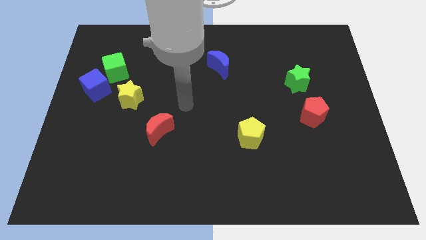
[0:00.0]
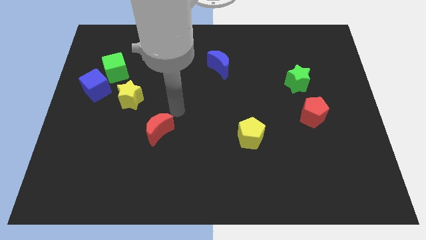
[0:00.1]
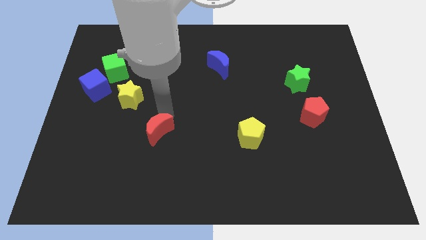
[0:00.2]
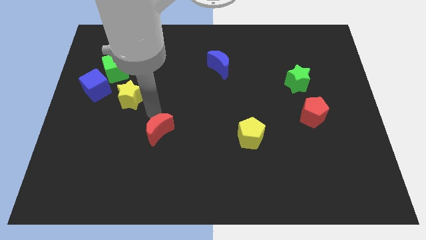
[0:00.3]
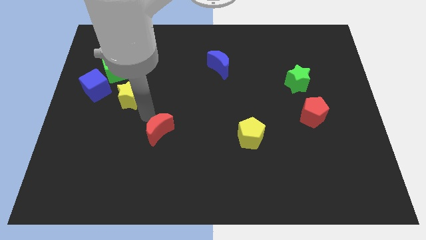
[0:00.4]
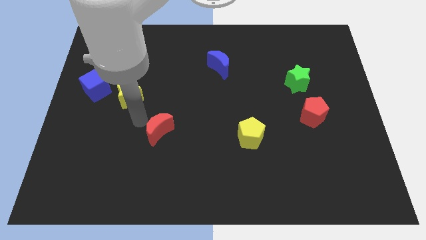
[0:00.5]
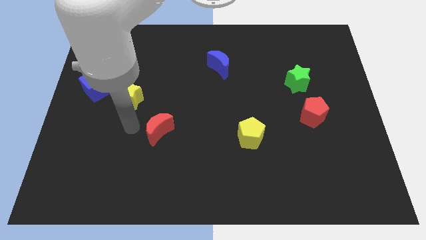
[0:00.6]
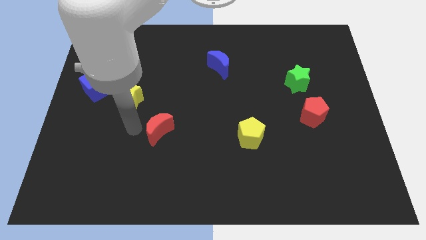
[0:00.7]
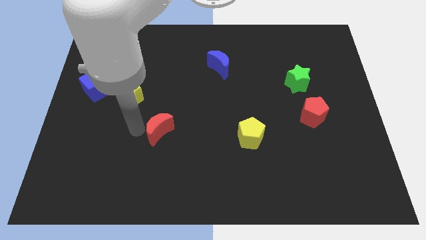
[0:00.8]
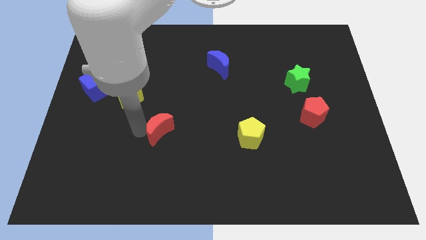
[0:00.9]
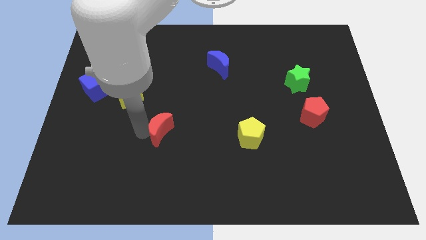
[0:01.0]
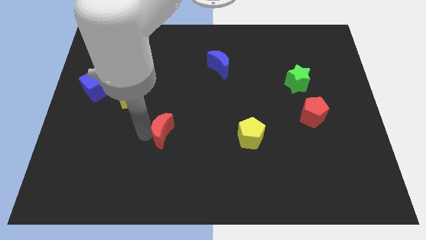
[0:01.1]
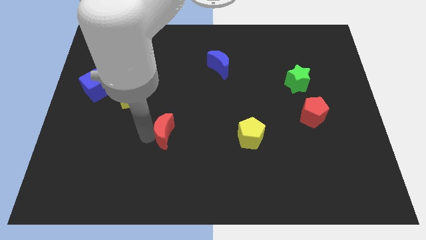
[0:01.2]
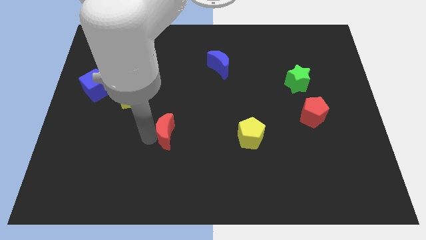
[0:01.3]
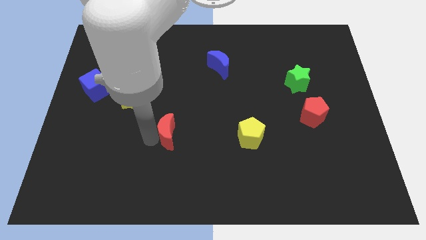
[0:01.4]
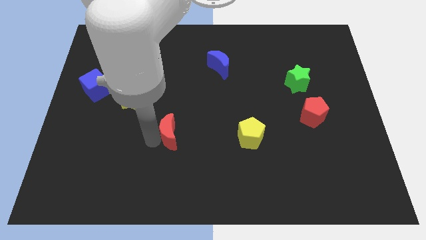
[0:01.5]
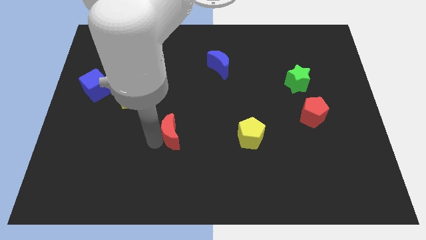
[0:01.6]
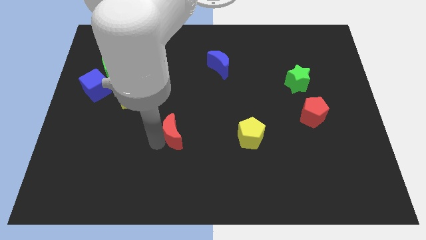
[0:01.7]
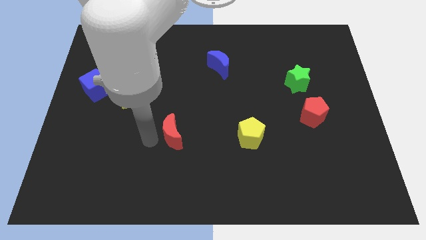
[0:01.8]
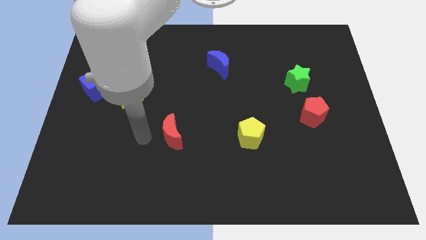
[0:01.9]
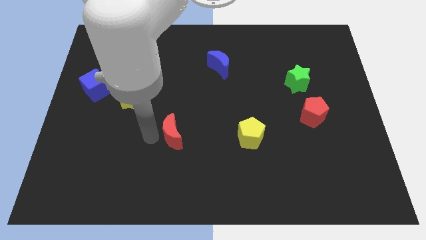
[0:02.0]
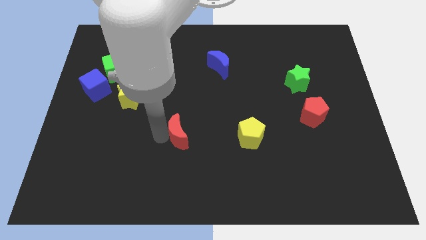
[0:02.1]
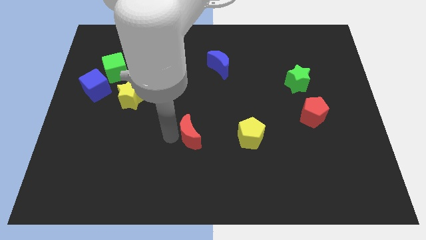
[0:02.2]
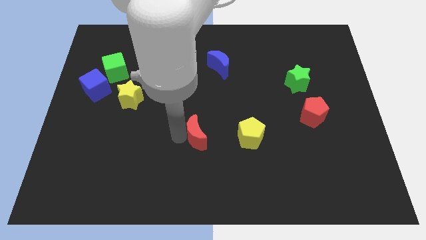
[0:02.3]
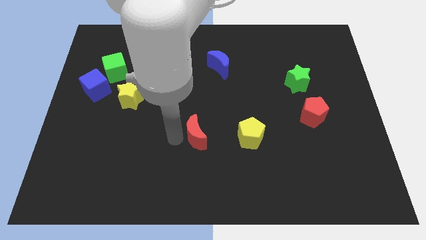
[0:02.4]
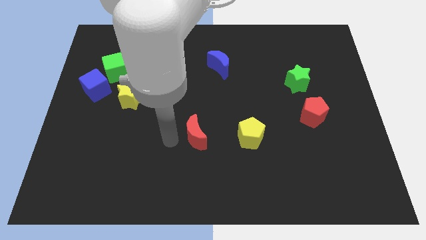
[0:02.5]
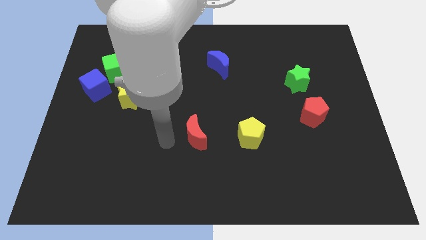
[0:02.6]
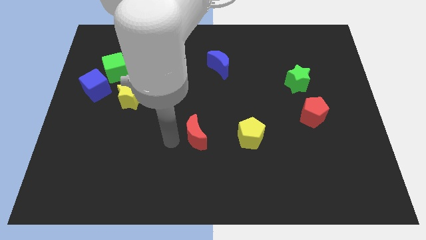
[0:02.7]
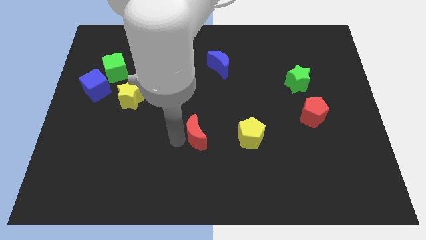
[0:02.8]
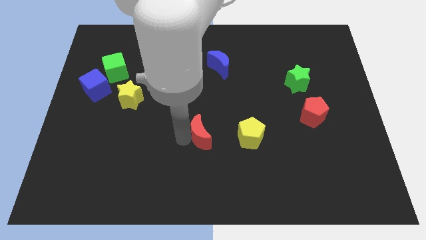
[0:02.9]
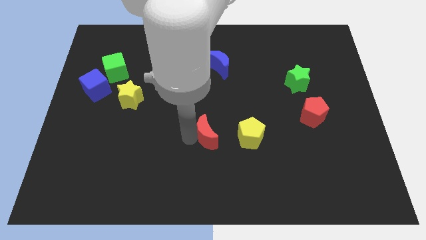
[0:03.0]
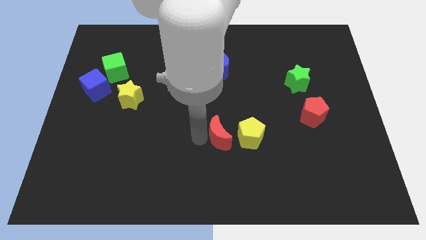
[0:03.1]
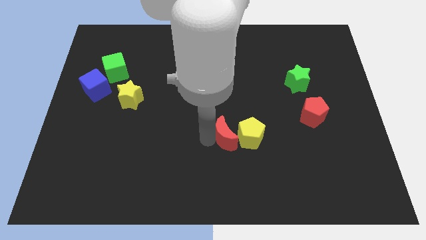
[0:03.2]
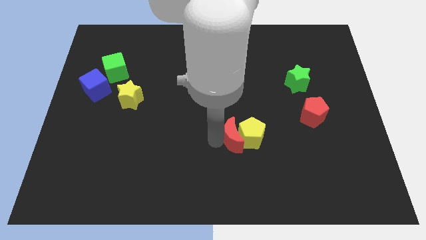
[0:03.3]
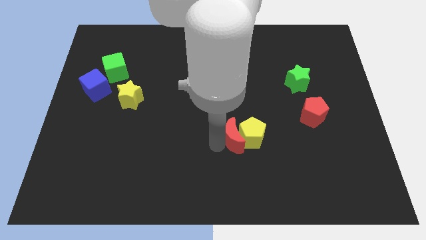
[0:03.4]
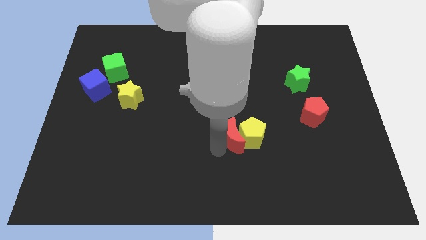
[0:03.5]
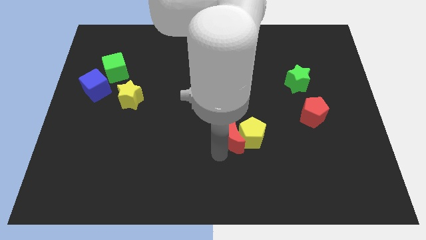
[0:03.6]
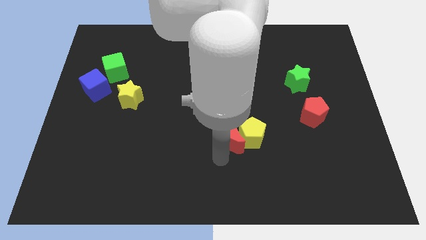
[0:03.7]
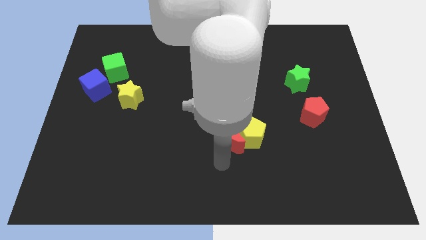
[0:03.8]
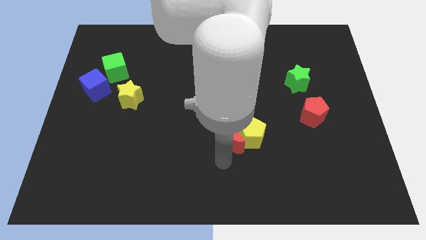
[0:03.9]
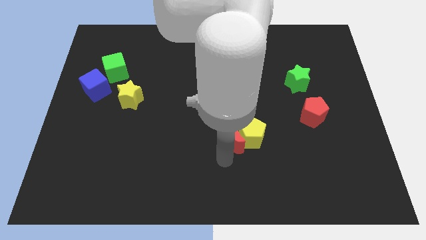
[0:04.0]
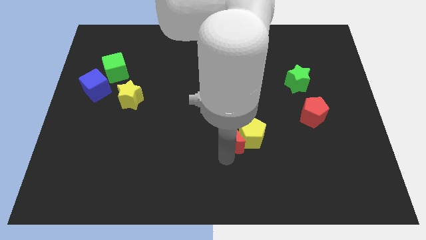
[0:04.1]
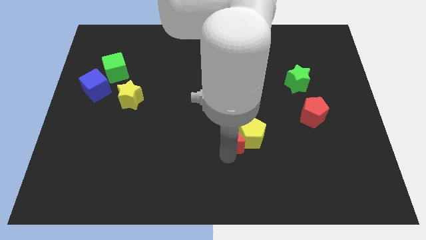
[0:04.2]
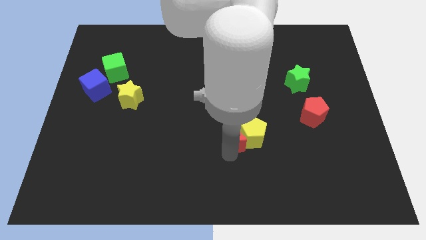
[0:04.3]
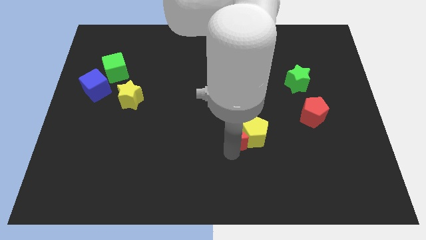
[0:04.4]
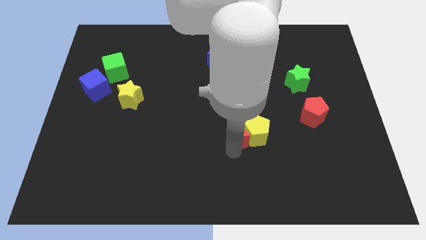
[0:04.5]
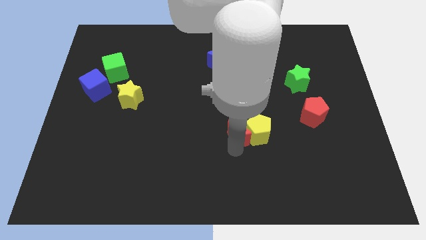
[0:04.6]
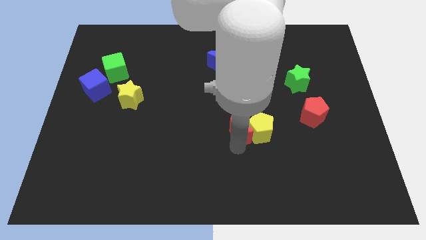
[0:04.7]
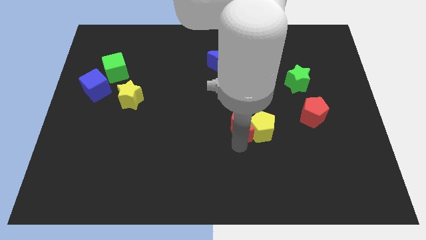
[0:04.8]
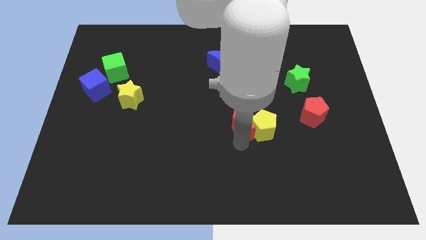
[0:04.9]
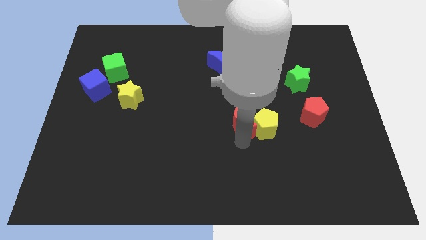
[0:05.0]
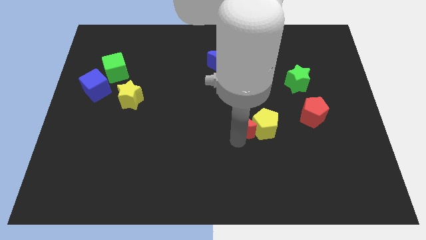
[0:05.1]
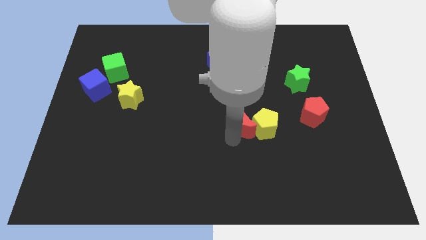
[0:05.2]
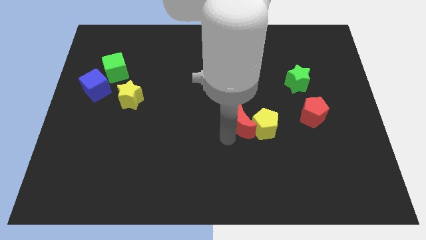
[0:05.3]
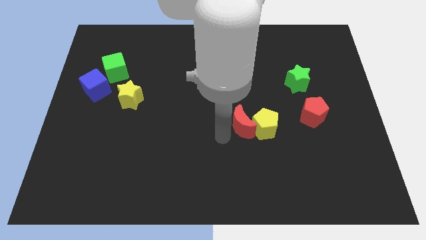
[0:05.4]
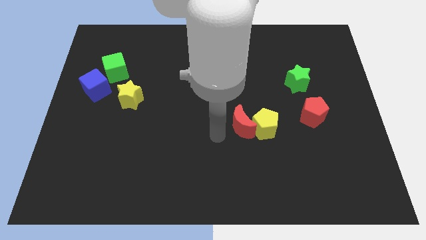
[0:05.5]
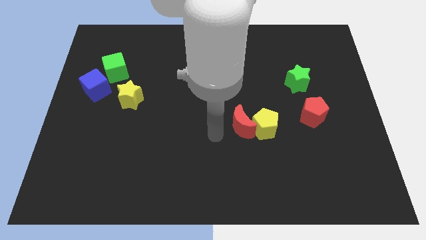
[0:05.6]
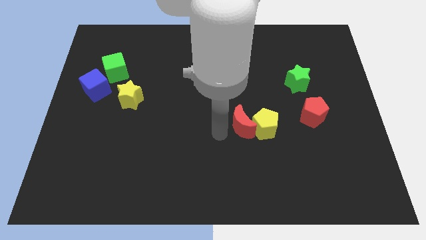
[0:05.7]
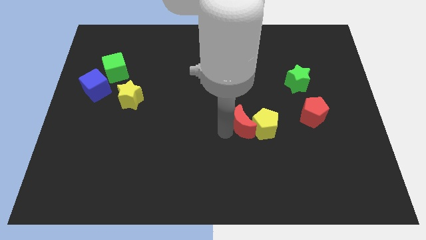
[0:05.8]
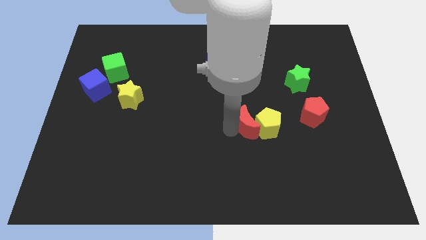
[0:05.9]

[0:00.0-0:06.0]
push the red moon right

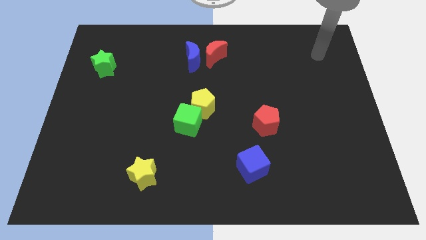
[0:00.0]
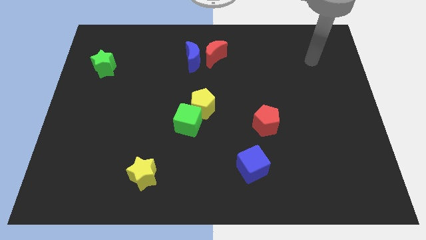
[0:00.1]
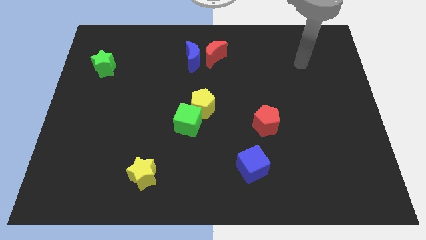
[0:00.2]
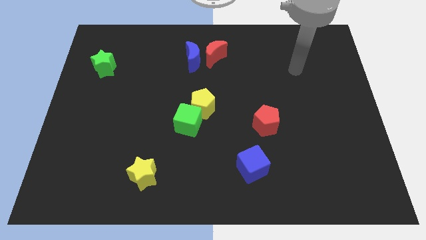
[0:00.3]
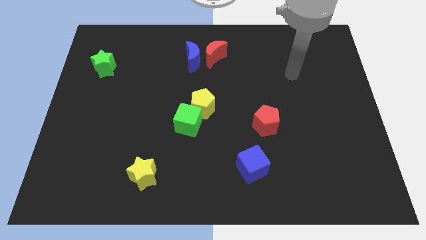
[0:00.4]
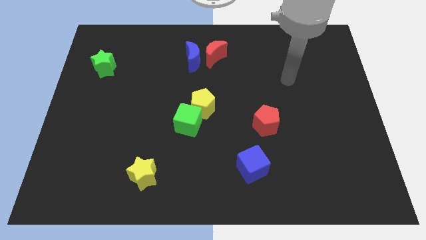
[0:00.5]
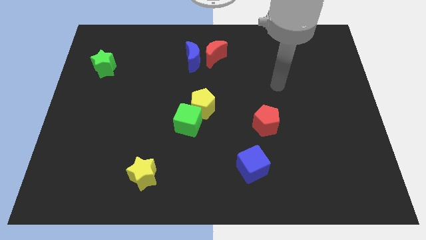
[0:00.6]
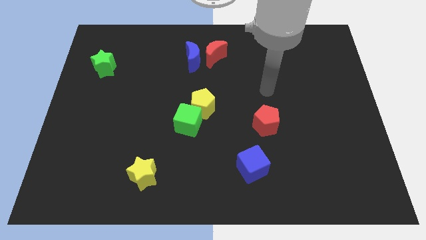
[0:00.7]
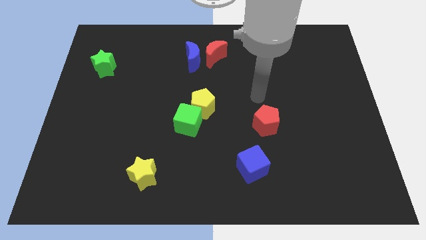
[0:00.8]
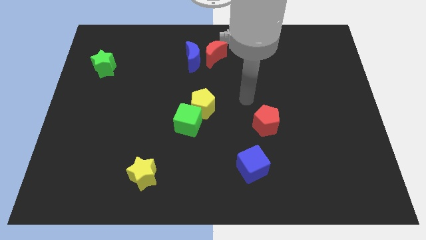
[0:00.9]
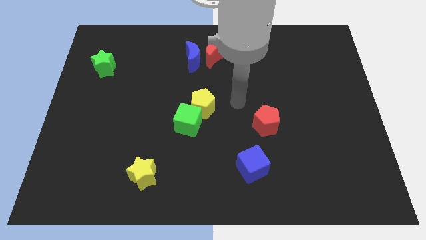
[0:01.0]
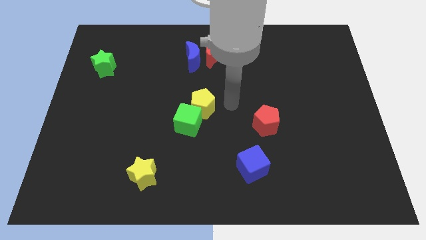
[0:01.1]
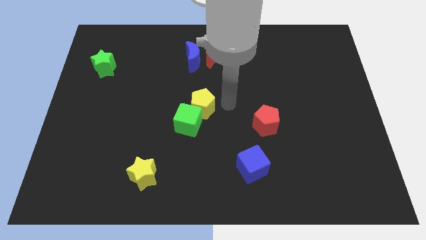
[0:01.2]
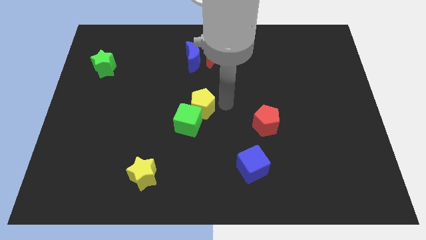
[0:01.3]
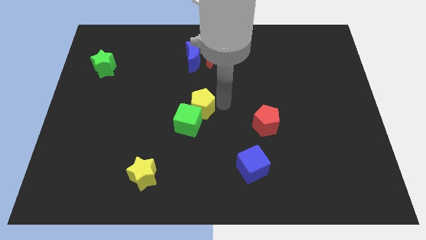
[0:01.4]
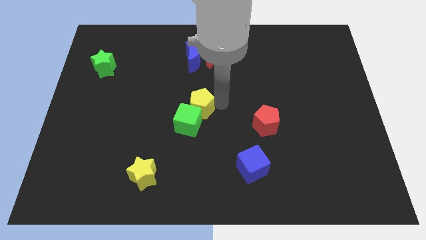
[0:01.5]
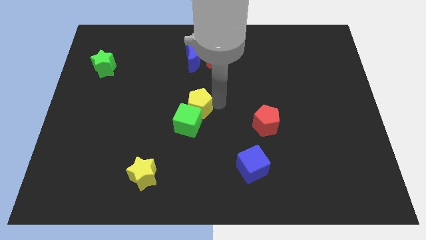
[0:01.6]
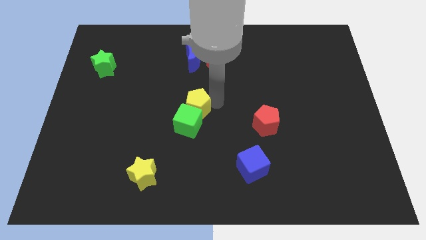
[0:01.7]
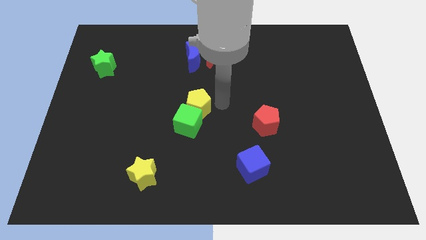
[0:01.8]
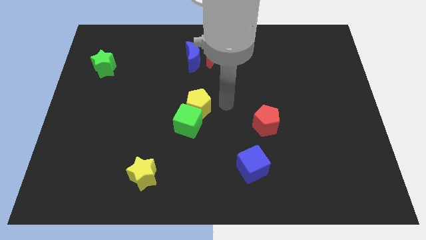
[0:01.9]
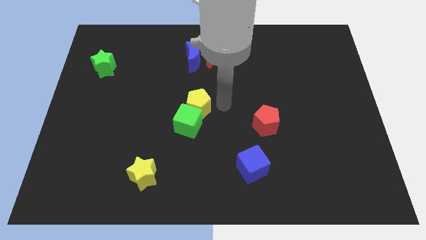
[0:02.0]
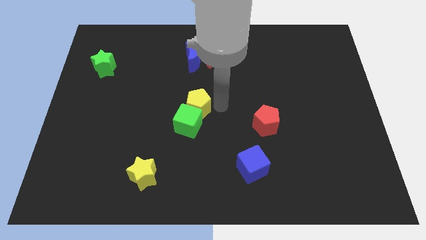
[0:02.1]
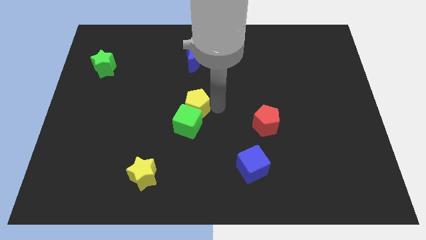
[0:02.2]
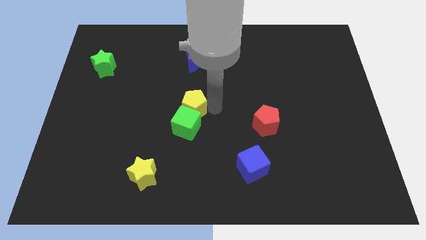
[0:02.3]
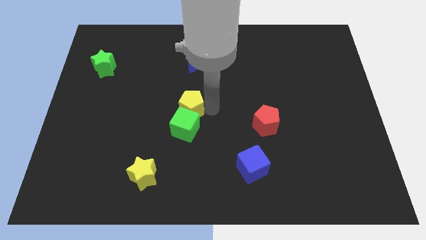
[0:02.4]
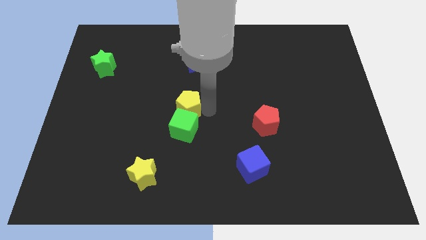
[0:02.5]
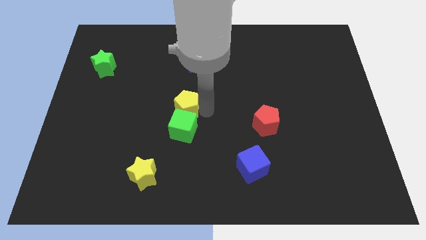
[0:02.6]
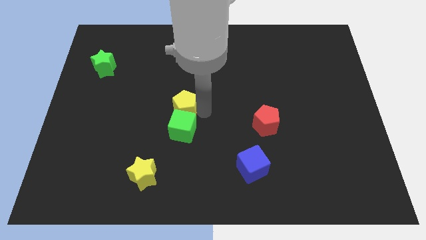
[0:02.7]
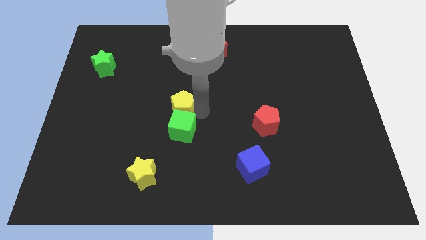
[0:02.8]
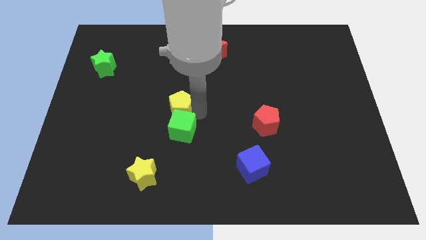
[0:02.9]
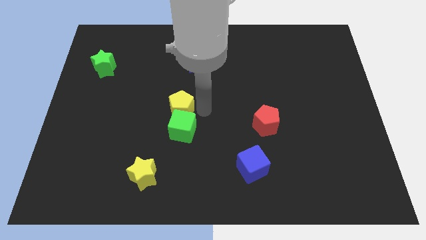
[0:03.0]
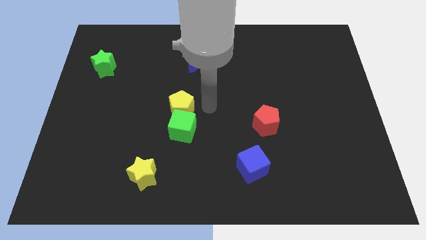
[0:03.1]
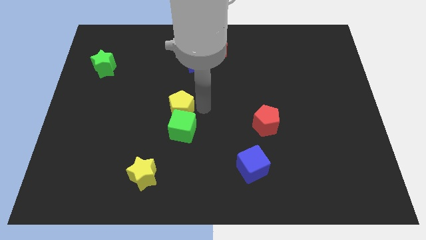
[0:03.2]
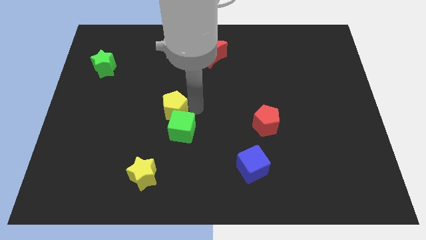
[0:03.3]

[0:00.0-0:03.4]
move the yellow pentagon left a little
